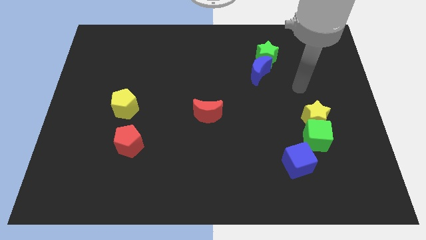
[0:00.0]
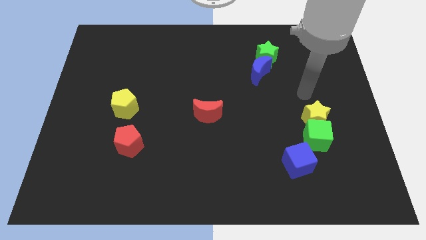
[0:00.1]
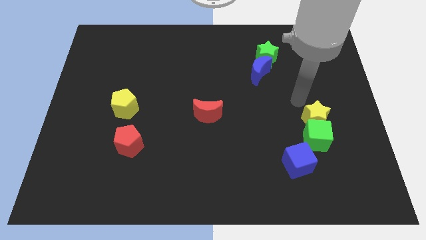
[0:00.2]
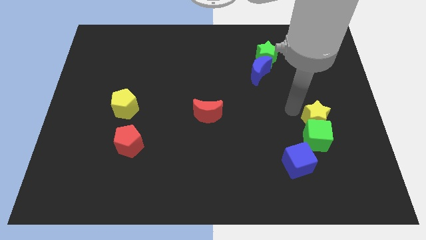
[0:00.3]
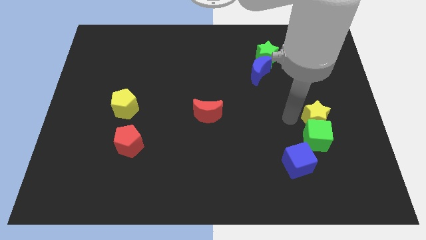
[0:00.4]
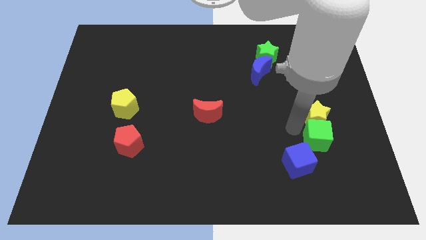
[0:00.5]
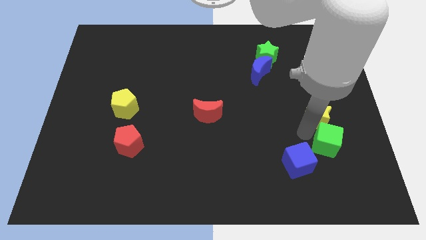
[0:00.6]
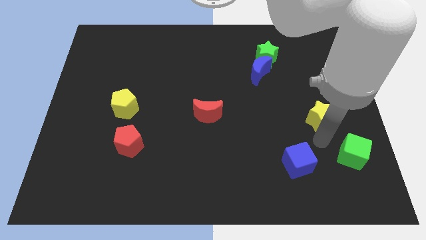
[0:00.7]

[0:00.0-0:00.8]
pull the yellow star apart from the green cube

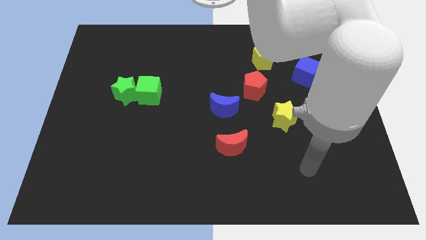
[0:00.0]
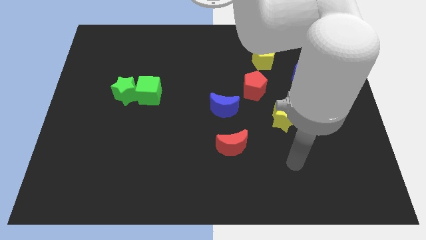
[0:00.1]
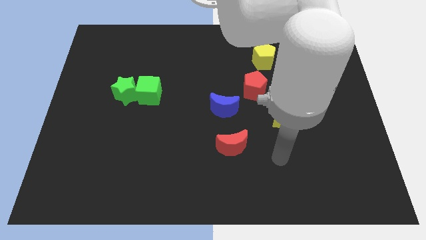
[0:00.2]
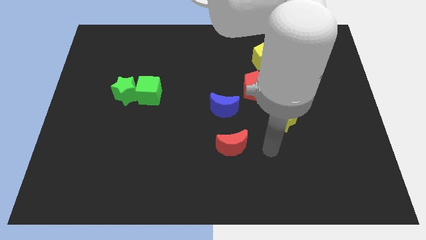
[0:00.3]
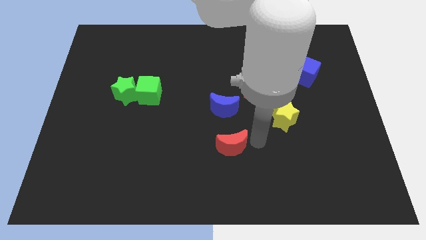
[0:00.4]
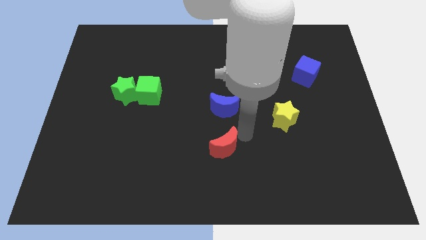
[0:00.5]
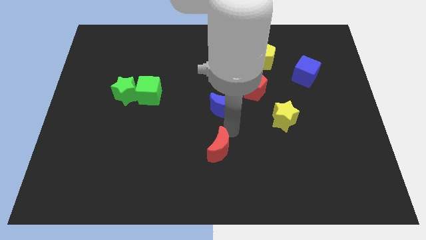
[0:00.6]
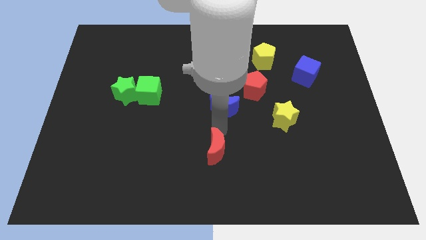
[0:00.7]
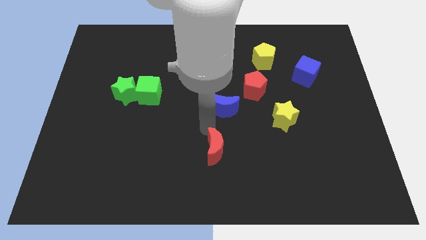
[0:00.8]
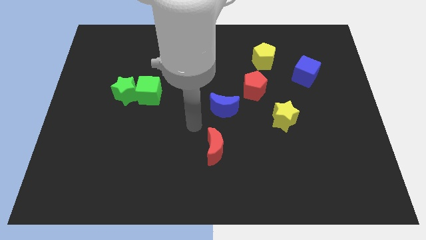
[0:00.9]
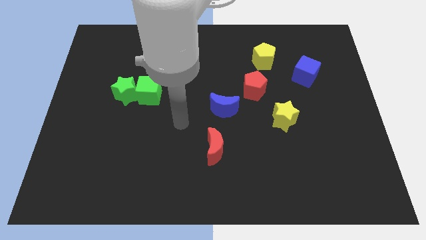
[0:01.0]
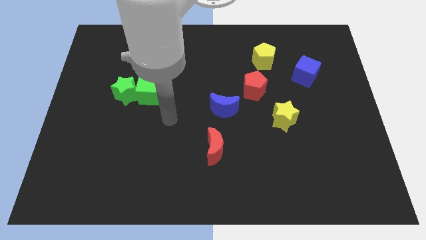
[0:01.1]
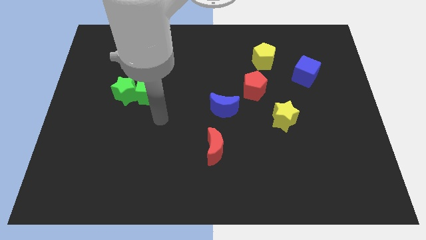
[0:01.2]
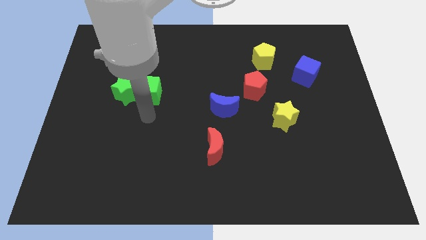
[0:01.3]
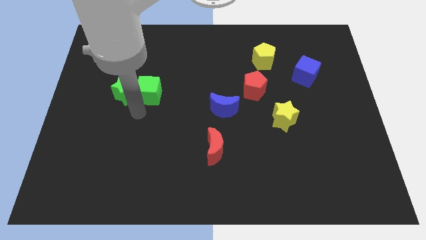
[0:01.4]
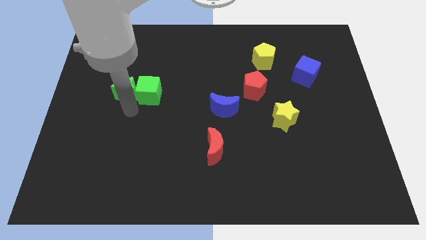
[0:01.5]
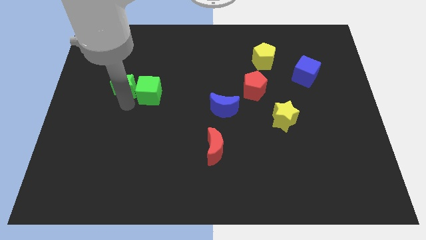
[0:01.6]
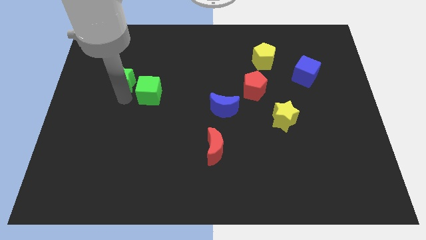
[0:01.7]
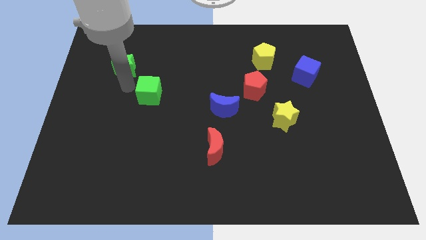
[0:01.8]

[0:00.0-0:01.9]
pull the green cube apart from the green star

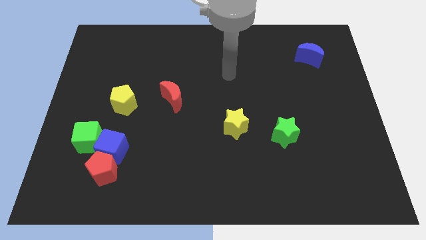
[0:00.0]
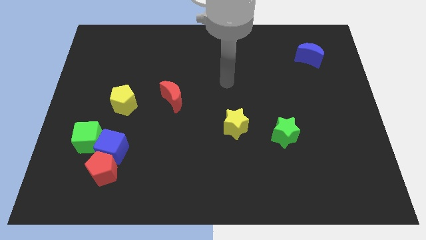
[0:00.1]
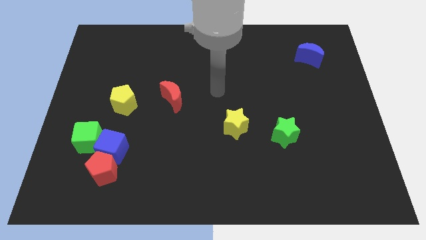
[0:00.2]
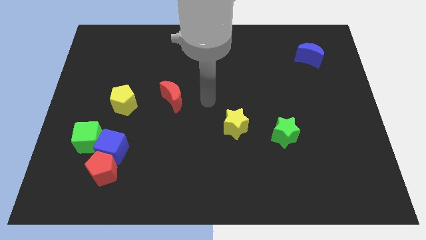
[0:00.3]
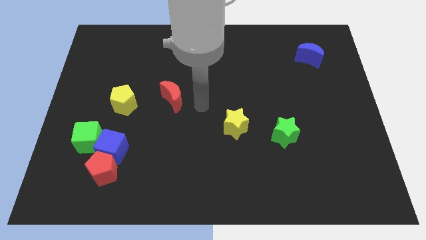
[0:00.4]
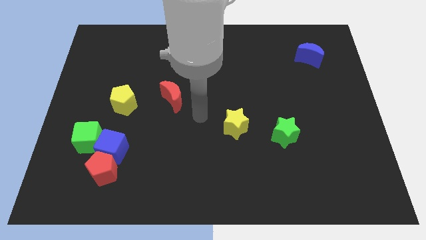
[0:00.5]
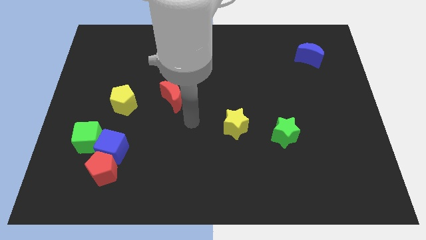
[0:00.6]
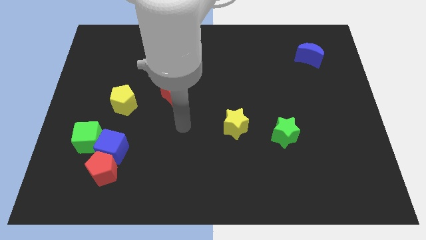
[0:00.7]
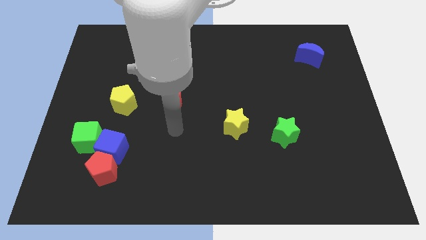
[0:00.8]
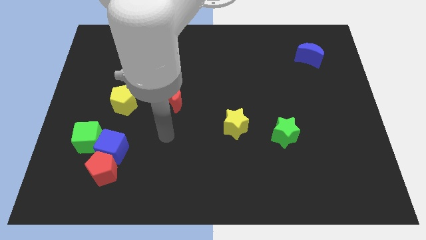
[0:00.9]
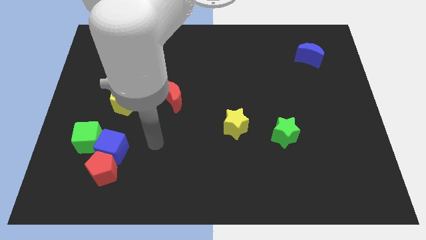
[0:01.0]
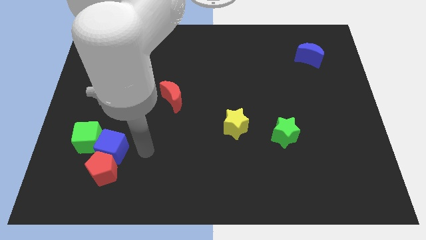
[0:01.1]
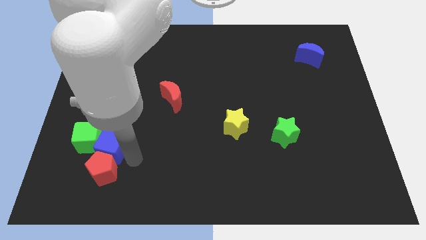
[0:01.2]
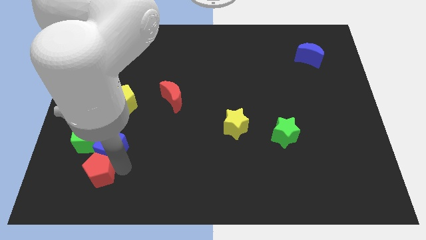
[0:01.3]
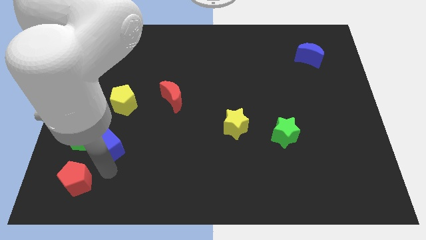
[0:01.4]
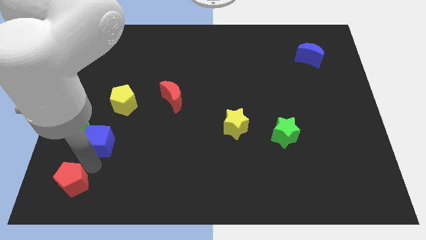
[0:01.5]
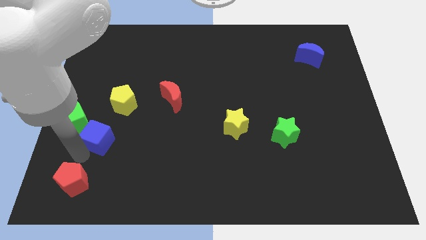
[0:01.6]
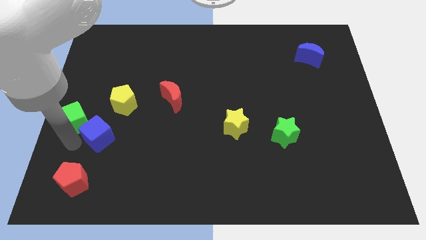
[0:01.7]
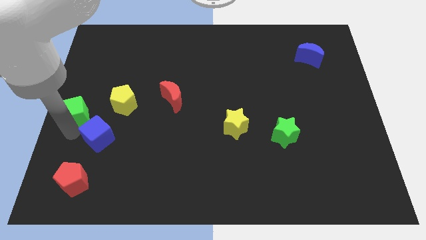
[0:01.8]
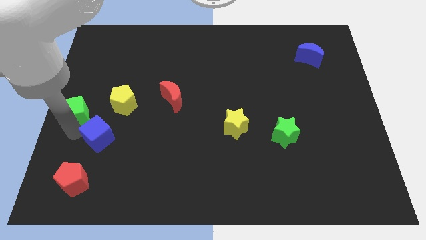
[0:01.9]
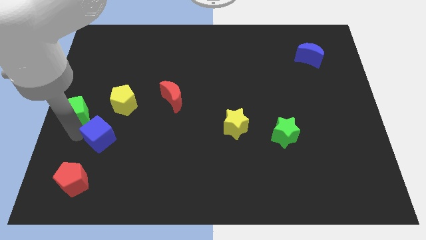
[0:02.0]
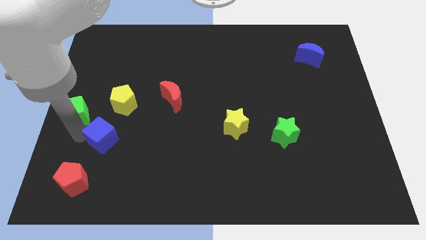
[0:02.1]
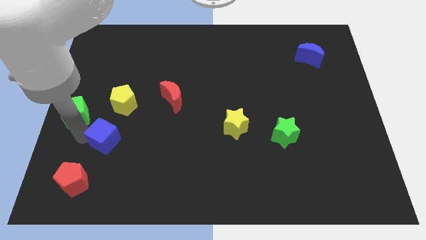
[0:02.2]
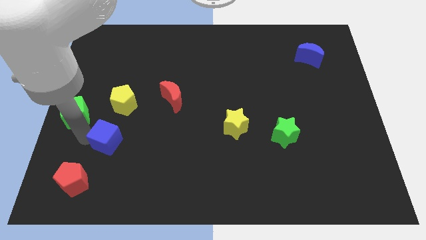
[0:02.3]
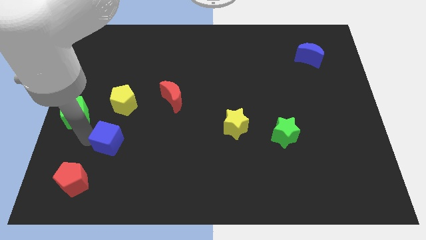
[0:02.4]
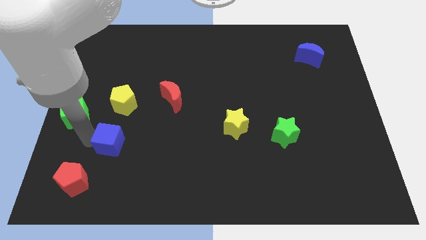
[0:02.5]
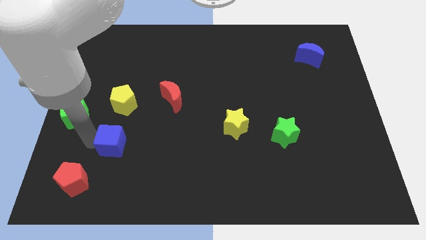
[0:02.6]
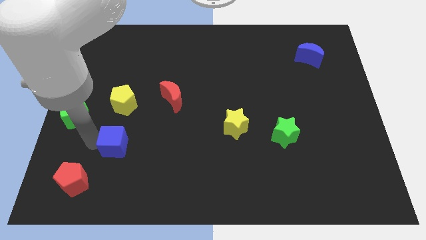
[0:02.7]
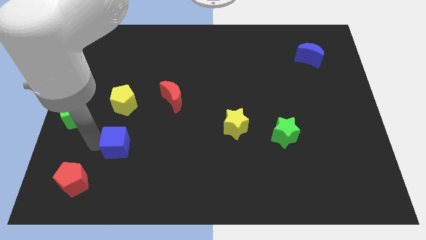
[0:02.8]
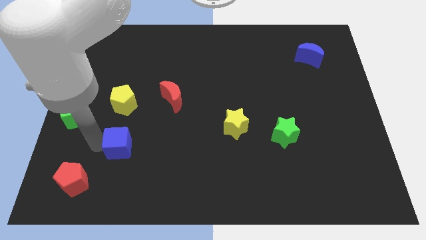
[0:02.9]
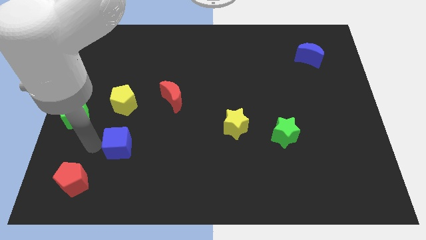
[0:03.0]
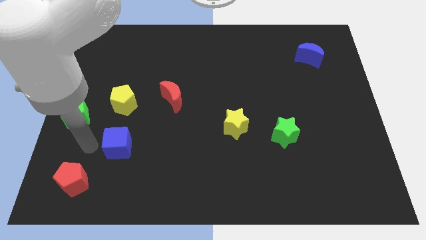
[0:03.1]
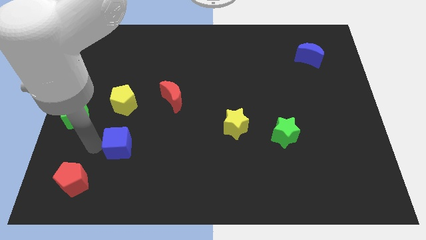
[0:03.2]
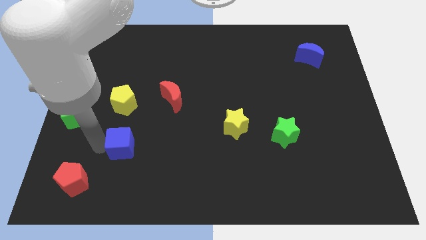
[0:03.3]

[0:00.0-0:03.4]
move the blue cube away from the red pentagon and green cube

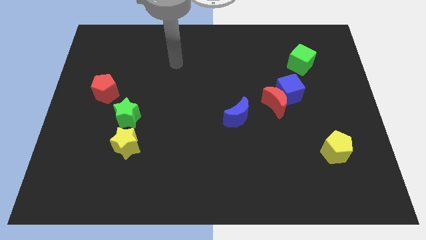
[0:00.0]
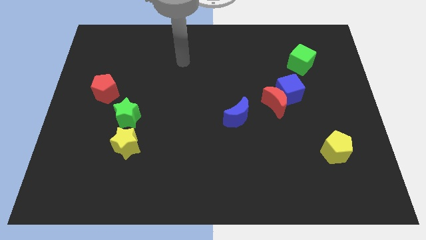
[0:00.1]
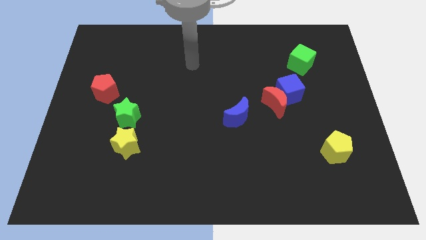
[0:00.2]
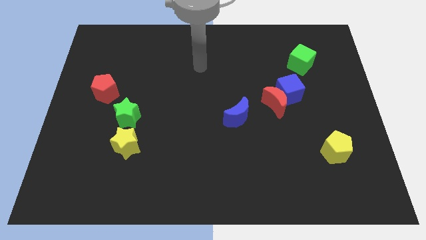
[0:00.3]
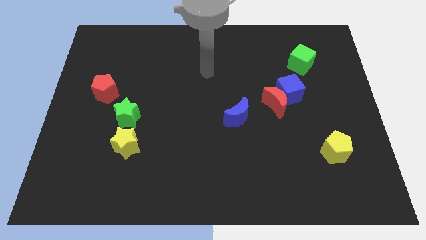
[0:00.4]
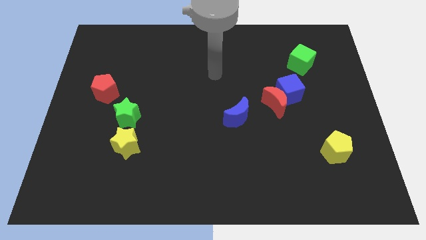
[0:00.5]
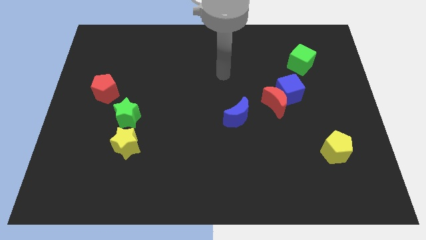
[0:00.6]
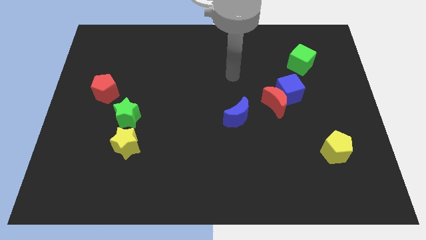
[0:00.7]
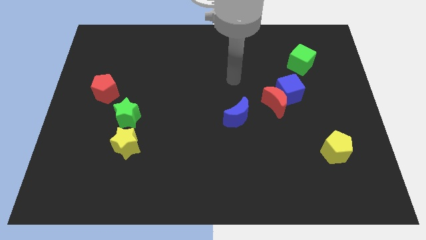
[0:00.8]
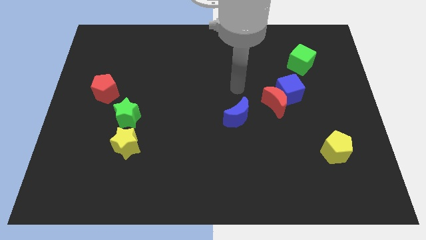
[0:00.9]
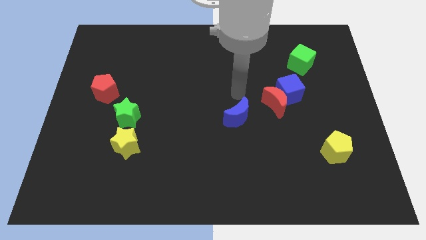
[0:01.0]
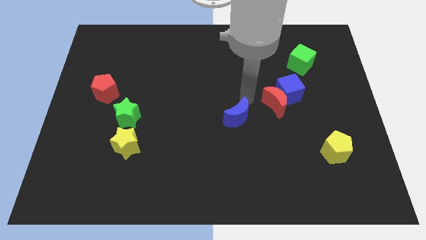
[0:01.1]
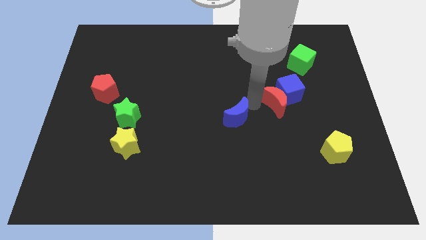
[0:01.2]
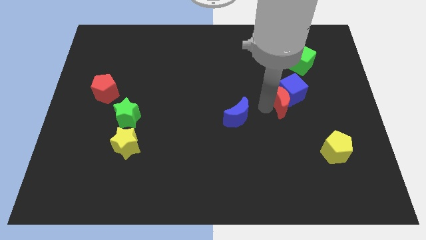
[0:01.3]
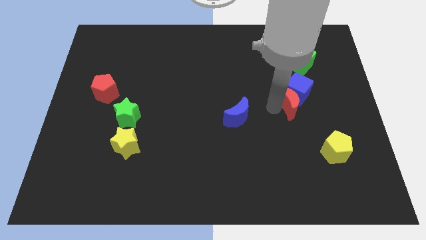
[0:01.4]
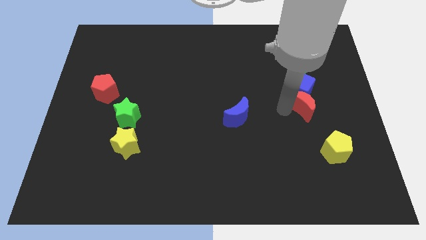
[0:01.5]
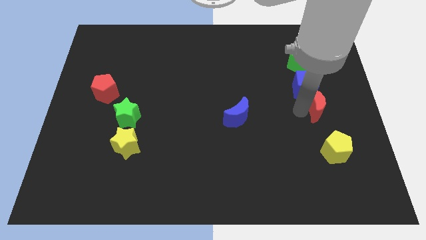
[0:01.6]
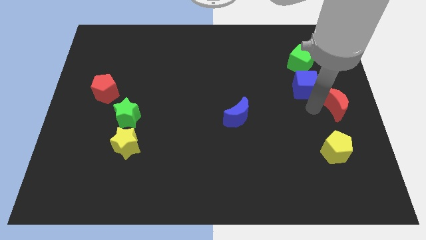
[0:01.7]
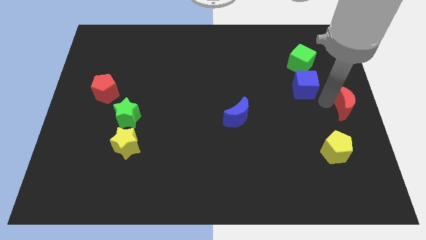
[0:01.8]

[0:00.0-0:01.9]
pull the blue cube apart from the red moon

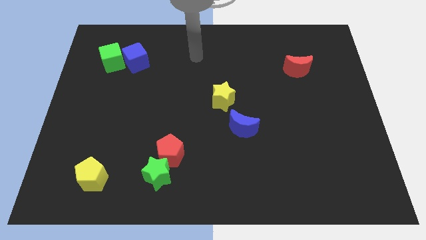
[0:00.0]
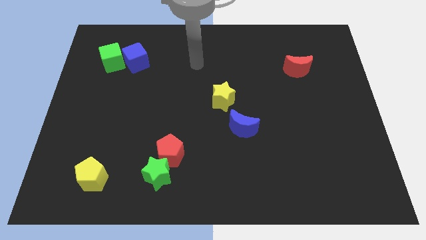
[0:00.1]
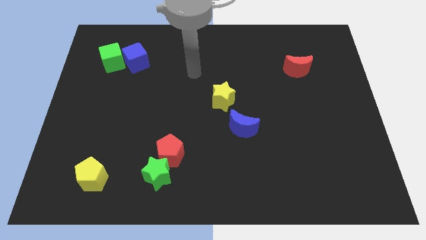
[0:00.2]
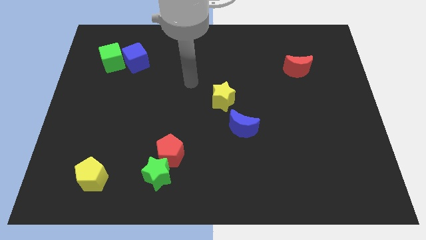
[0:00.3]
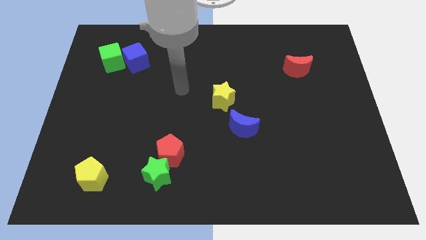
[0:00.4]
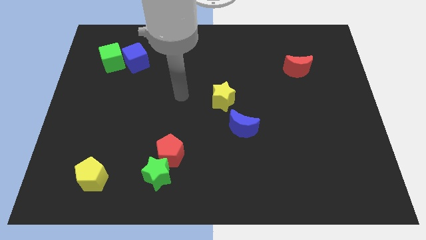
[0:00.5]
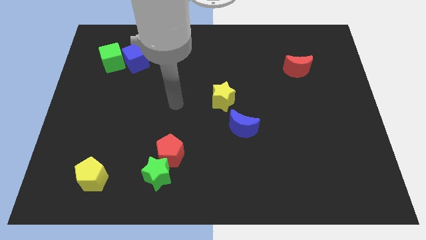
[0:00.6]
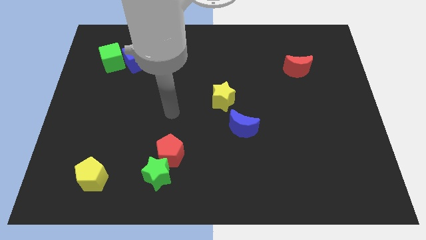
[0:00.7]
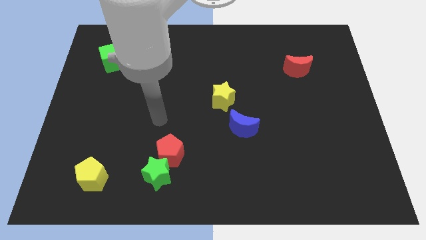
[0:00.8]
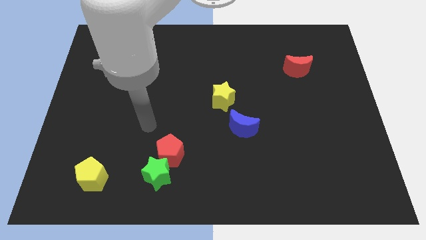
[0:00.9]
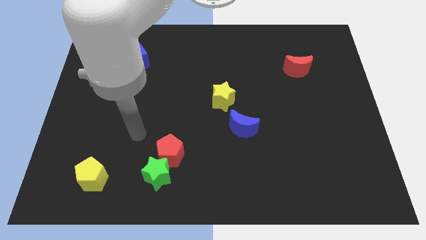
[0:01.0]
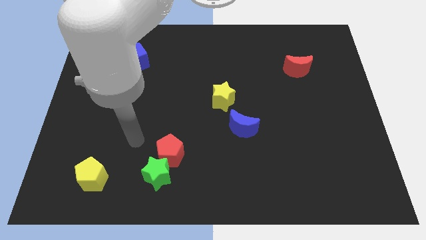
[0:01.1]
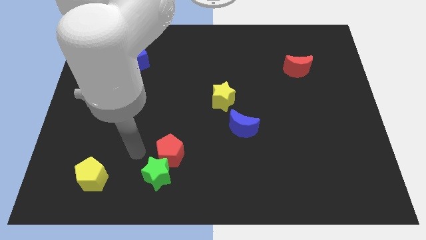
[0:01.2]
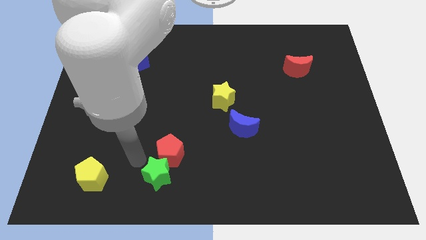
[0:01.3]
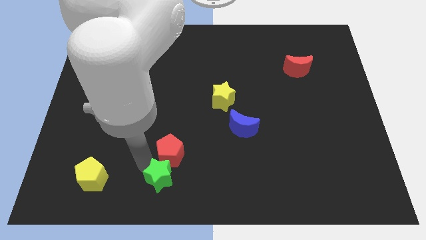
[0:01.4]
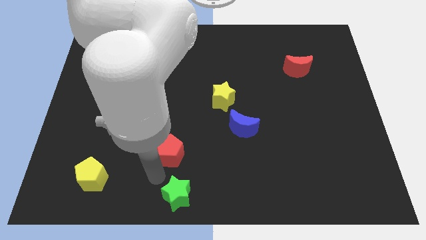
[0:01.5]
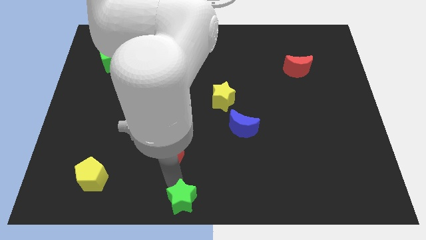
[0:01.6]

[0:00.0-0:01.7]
separate the red pentagon from the green star
